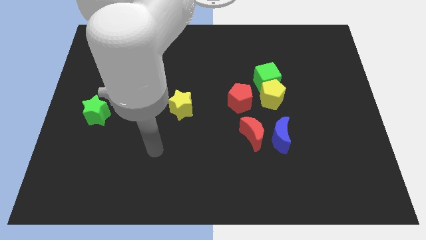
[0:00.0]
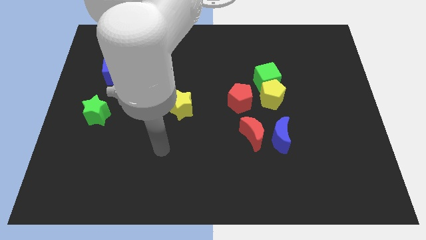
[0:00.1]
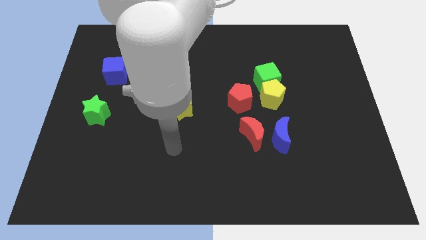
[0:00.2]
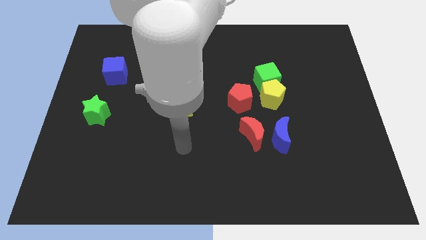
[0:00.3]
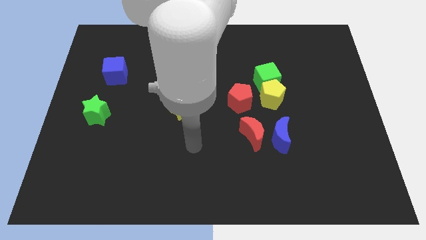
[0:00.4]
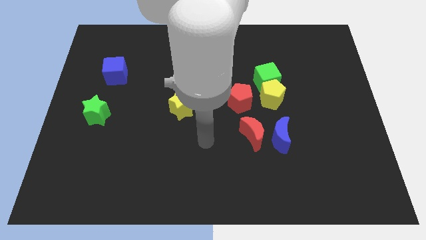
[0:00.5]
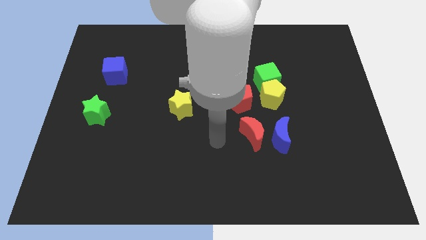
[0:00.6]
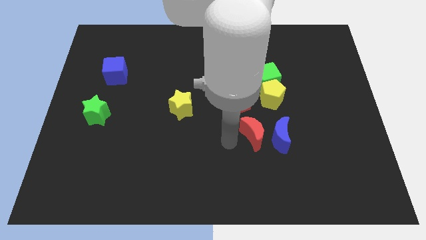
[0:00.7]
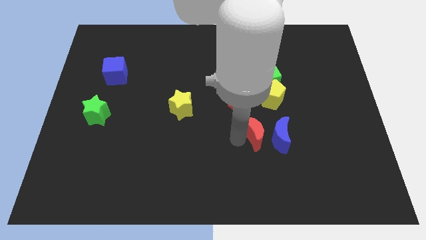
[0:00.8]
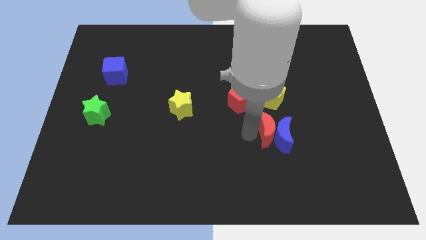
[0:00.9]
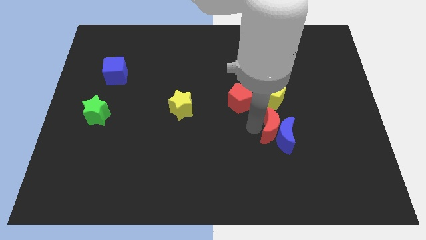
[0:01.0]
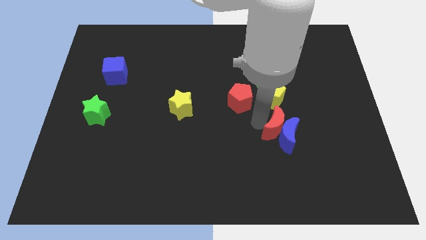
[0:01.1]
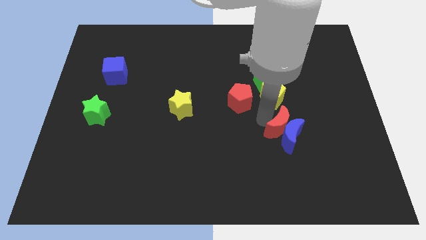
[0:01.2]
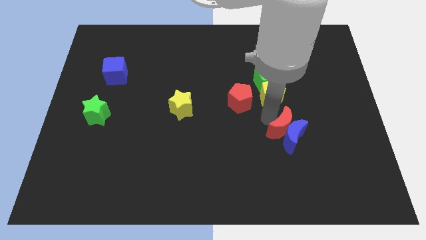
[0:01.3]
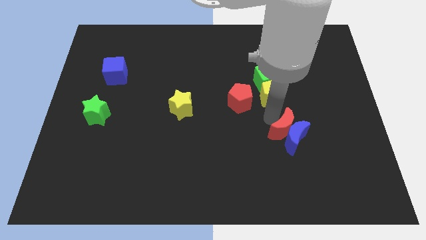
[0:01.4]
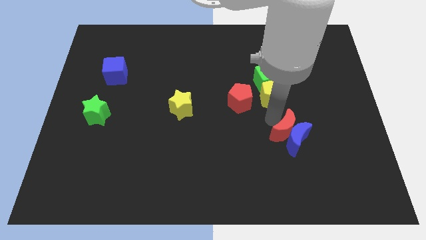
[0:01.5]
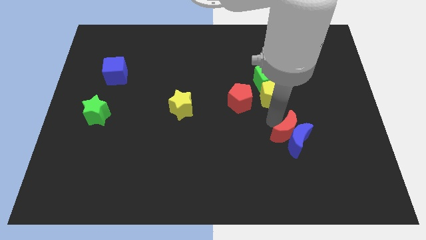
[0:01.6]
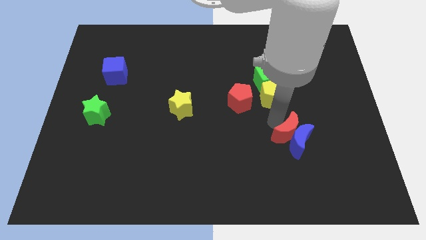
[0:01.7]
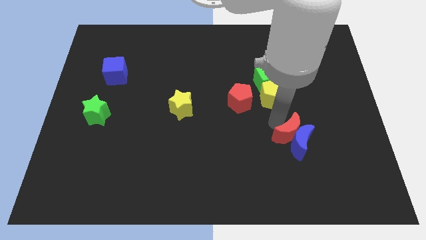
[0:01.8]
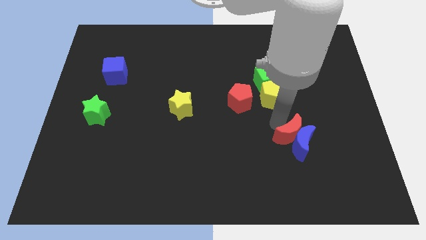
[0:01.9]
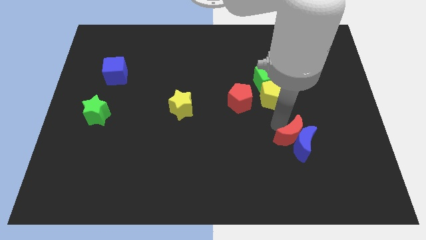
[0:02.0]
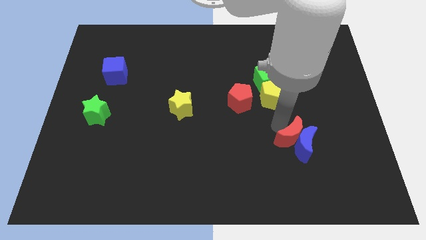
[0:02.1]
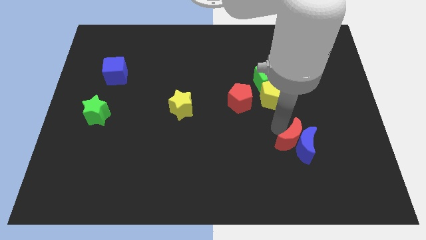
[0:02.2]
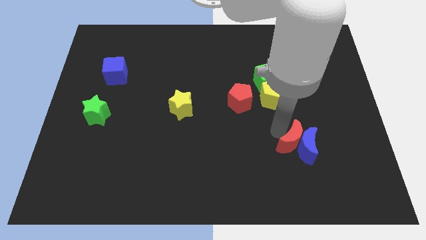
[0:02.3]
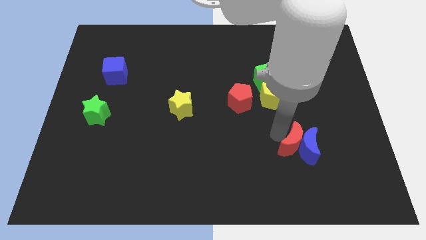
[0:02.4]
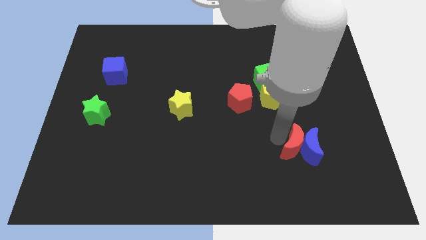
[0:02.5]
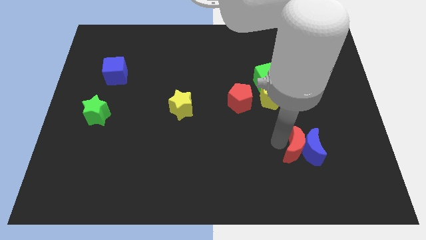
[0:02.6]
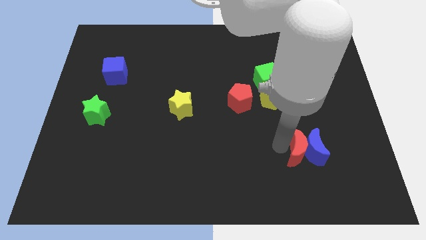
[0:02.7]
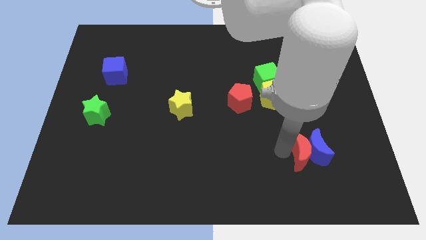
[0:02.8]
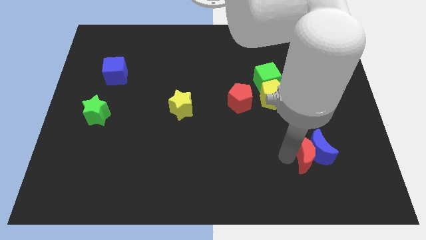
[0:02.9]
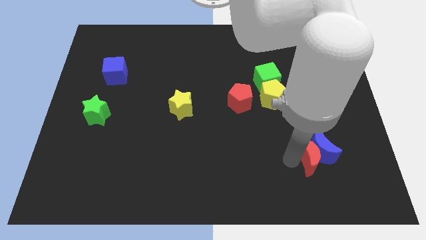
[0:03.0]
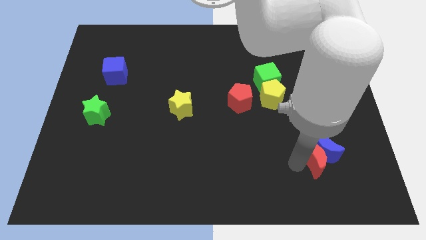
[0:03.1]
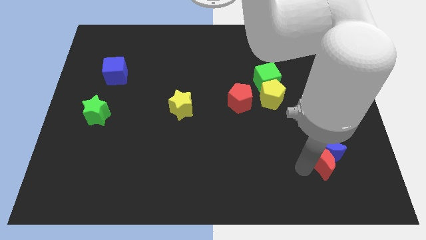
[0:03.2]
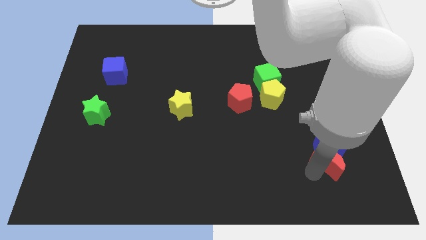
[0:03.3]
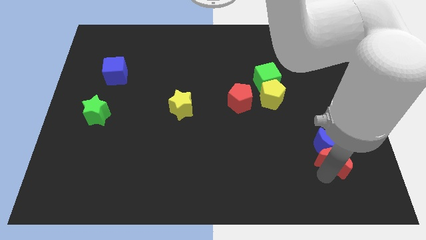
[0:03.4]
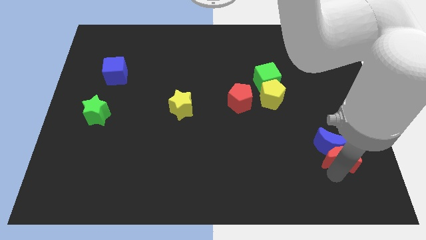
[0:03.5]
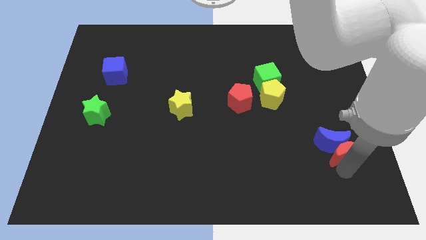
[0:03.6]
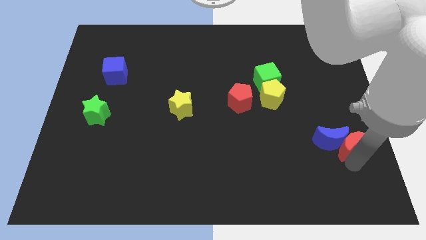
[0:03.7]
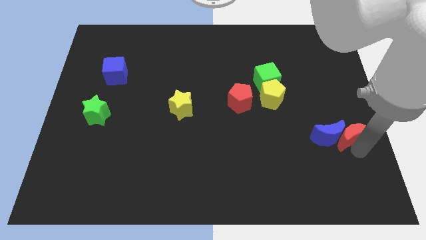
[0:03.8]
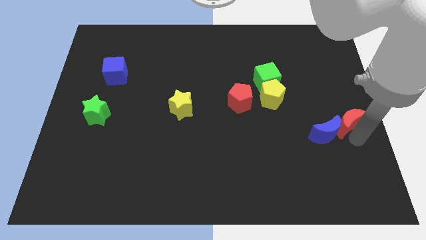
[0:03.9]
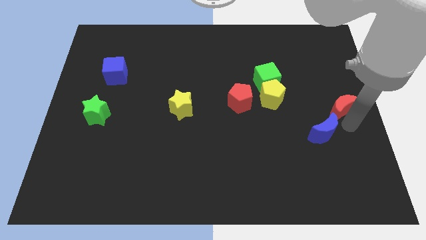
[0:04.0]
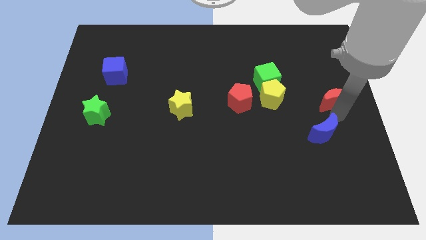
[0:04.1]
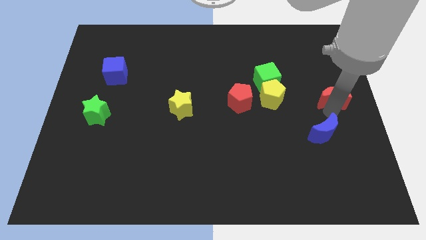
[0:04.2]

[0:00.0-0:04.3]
move the blue moon away from the red moon

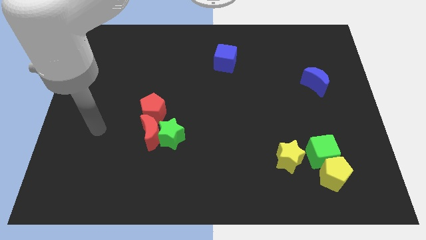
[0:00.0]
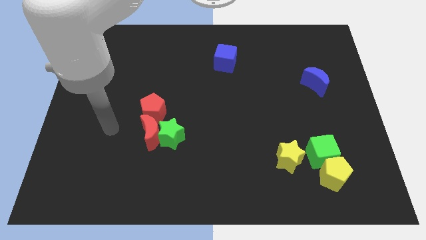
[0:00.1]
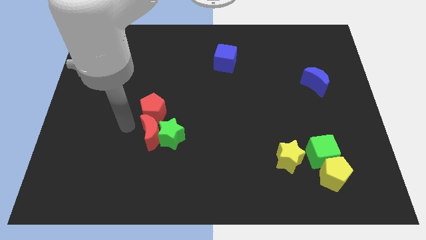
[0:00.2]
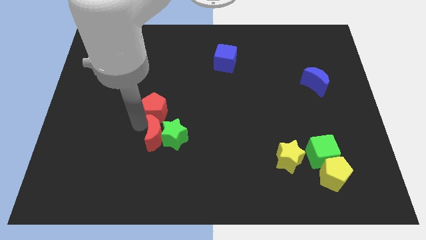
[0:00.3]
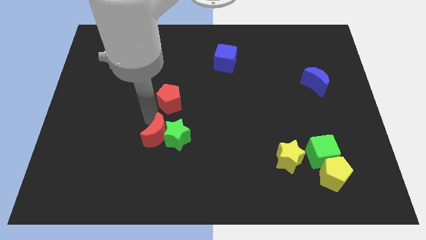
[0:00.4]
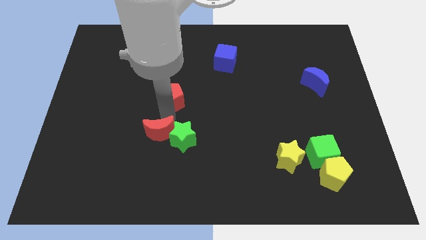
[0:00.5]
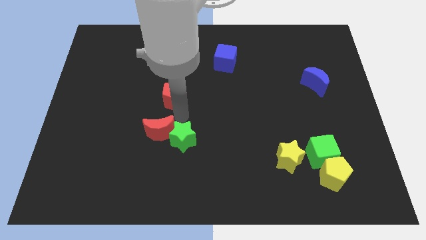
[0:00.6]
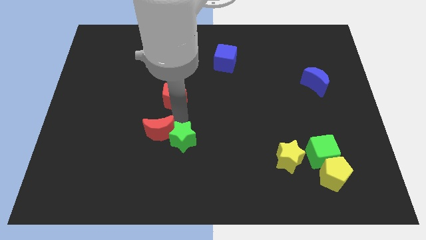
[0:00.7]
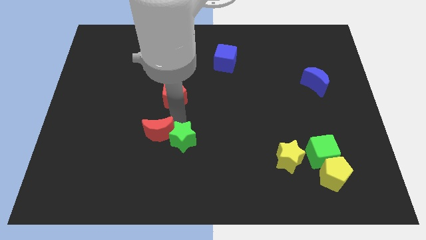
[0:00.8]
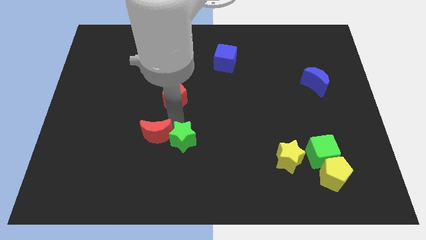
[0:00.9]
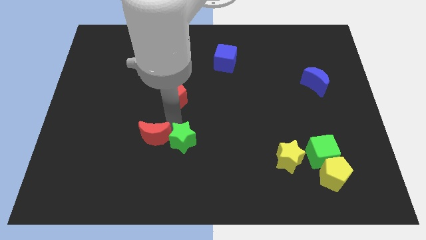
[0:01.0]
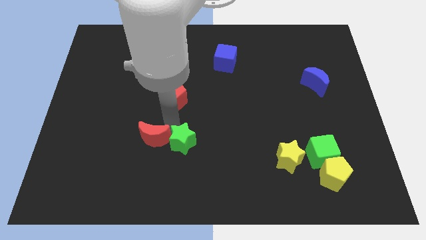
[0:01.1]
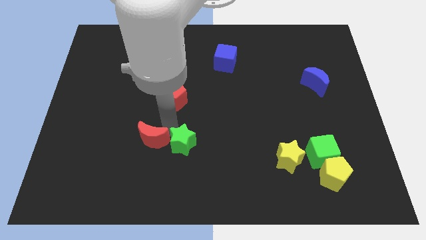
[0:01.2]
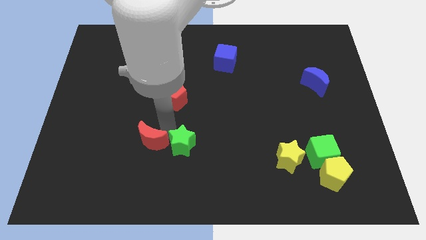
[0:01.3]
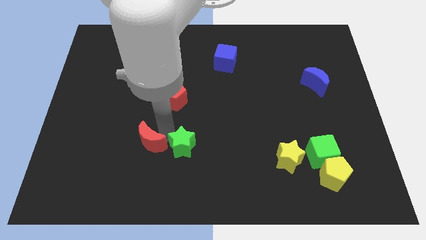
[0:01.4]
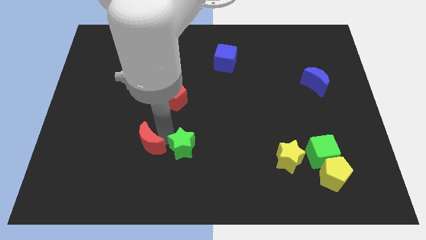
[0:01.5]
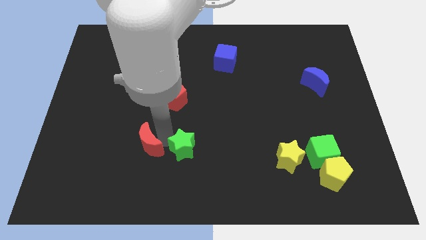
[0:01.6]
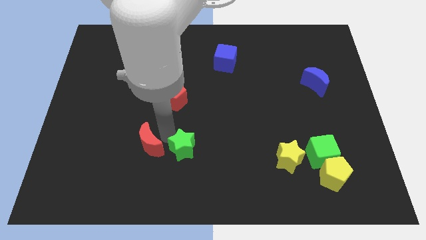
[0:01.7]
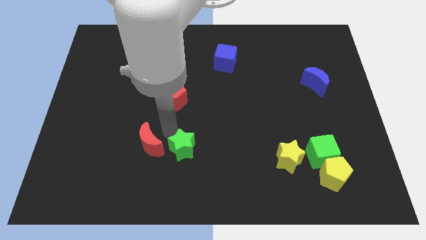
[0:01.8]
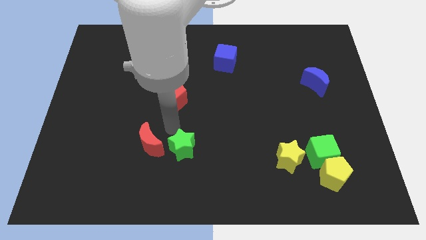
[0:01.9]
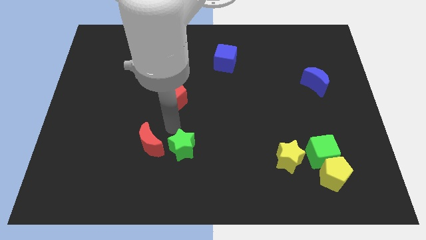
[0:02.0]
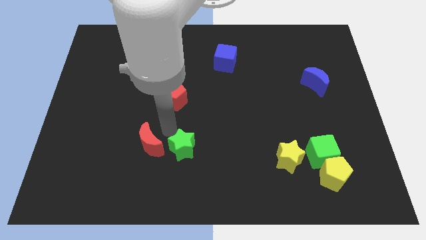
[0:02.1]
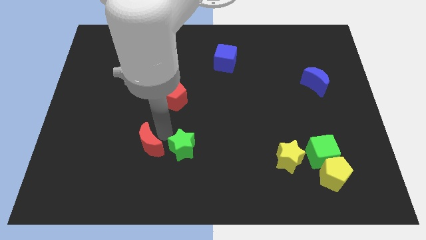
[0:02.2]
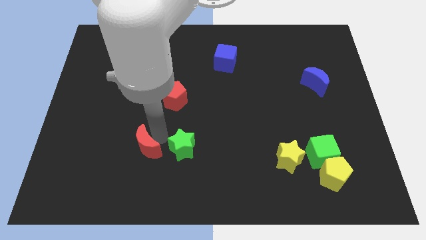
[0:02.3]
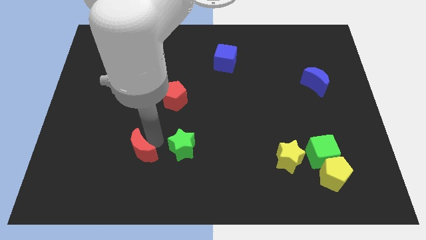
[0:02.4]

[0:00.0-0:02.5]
move the red moon away from the green star and red pentagon

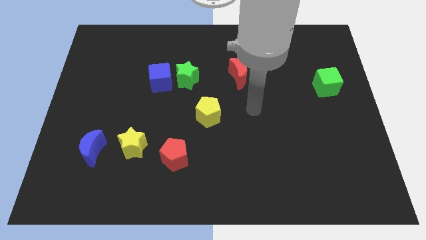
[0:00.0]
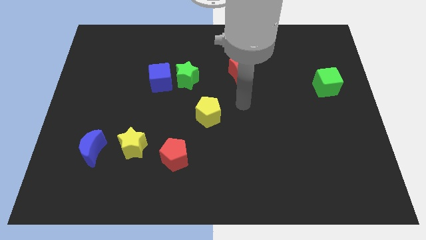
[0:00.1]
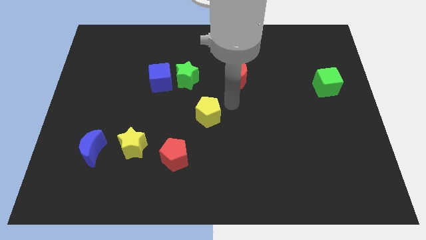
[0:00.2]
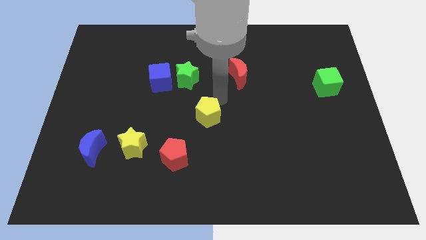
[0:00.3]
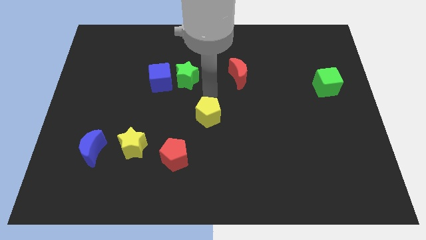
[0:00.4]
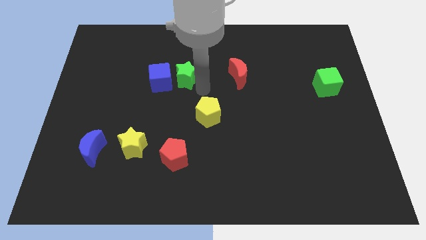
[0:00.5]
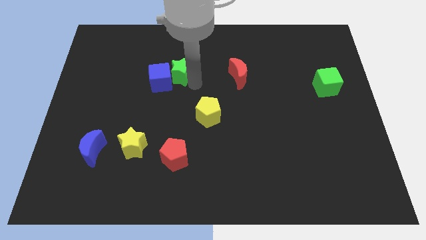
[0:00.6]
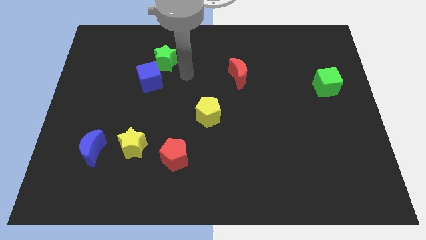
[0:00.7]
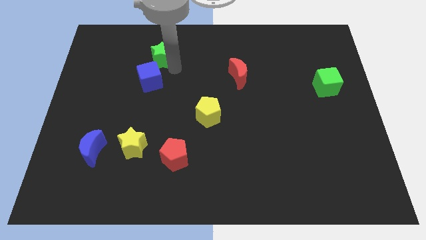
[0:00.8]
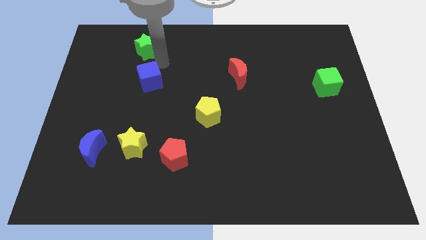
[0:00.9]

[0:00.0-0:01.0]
separate the blue cube from the green star

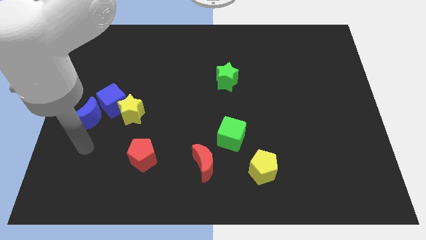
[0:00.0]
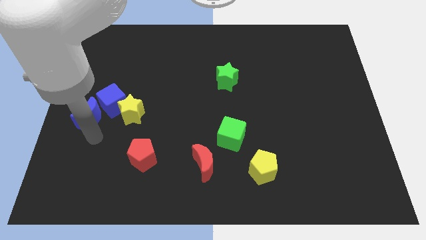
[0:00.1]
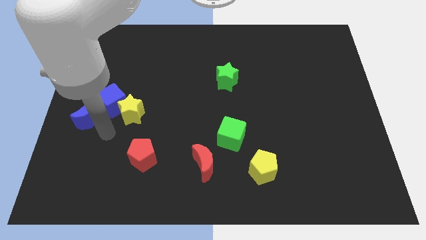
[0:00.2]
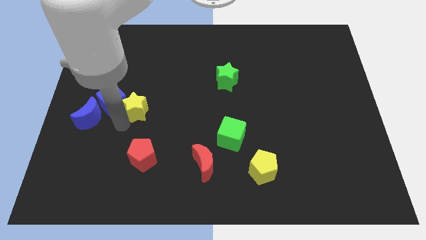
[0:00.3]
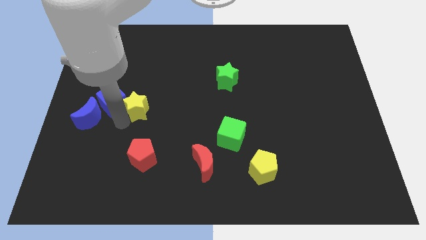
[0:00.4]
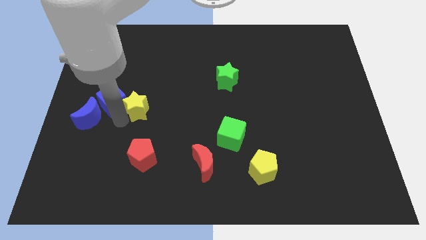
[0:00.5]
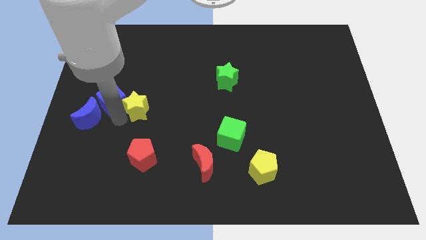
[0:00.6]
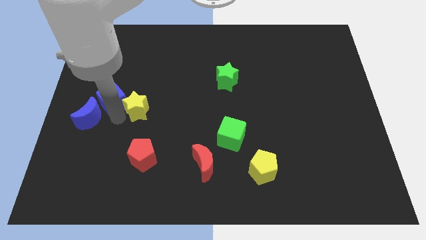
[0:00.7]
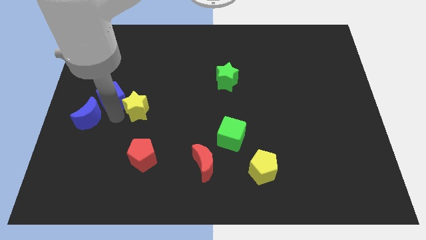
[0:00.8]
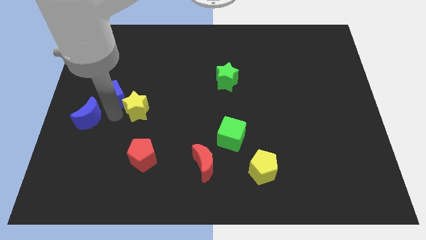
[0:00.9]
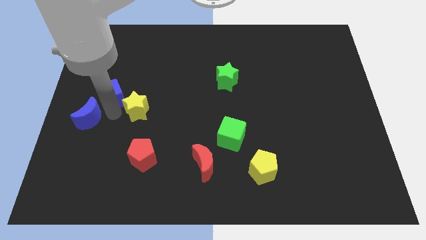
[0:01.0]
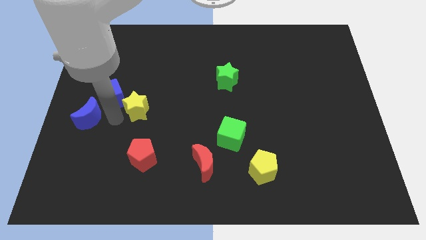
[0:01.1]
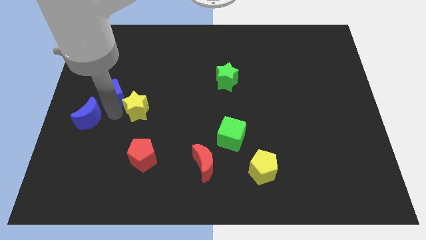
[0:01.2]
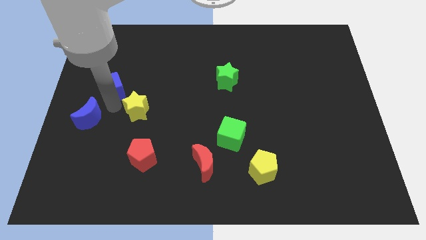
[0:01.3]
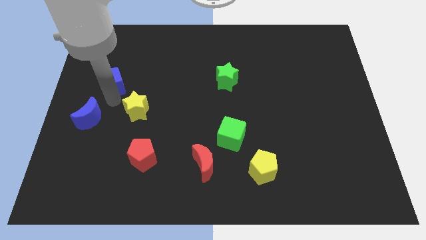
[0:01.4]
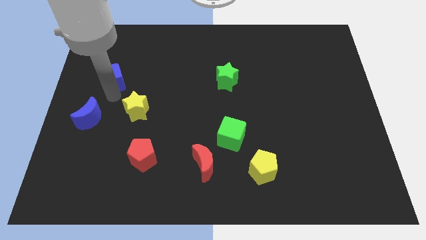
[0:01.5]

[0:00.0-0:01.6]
pull the blue cube apart from the yellow star and blue moon
